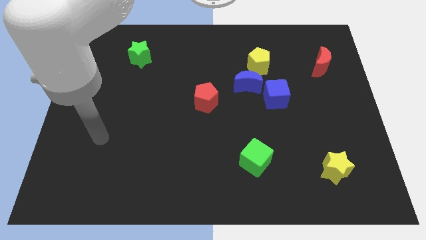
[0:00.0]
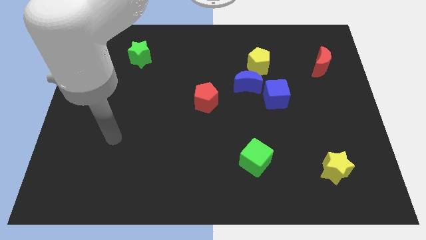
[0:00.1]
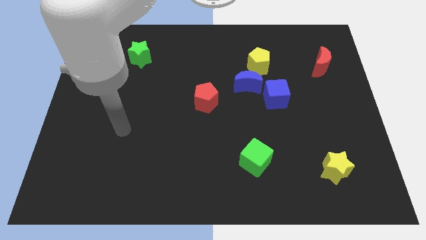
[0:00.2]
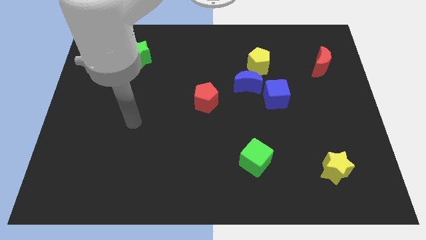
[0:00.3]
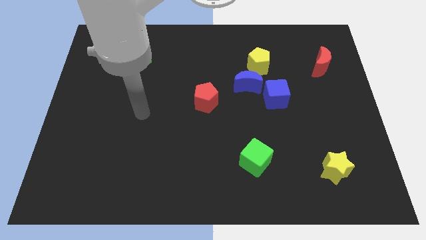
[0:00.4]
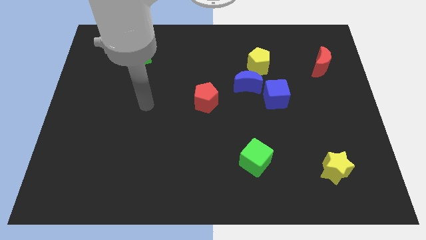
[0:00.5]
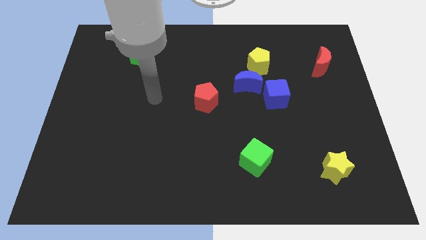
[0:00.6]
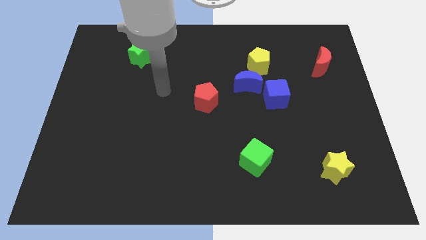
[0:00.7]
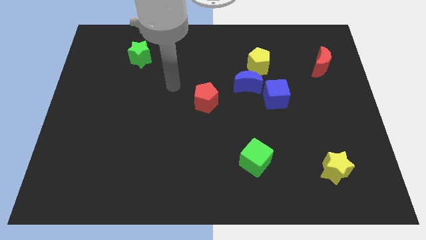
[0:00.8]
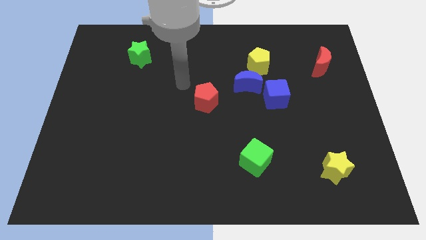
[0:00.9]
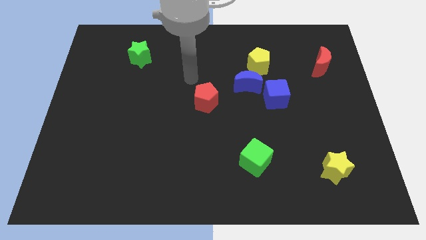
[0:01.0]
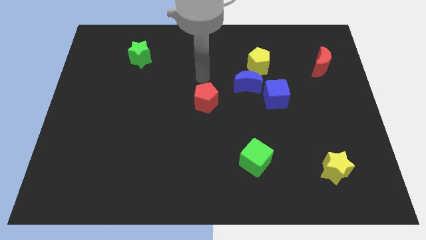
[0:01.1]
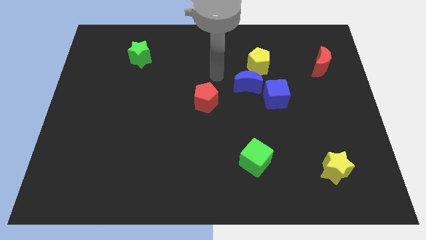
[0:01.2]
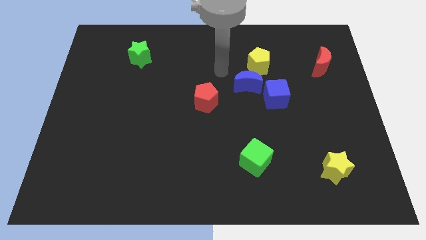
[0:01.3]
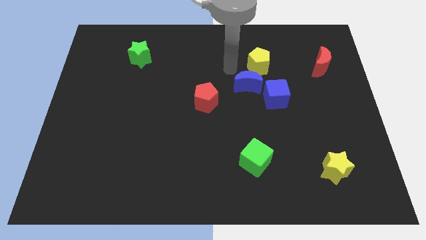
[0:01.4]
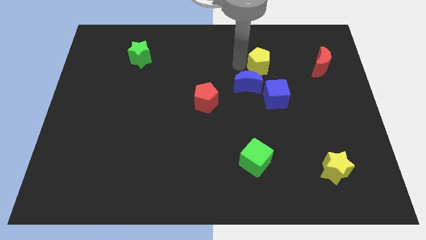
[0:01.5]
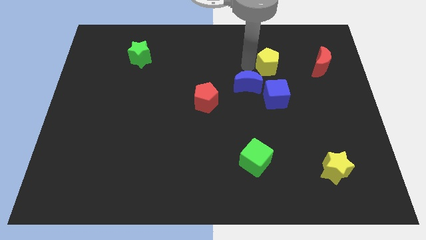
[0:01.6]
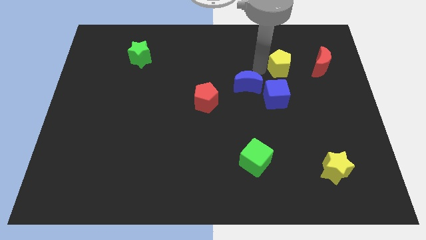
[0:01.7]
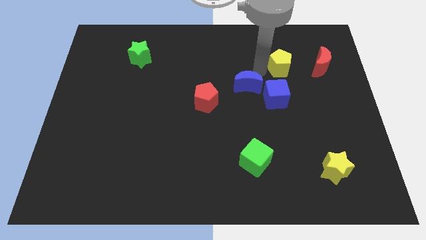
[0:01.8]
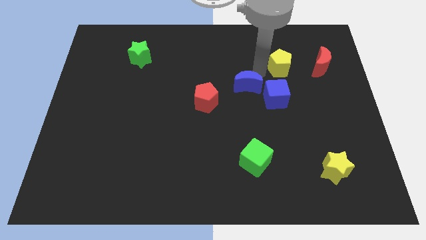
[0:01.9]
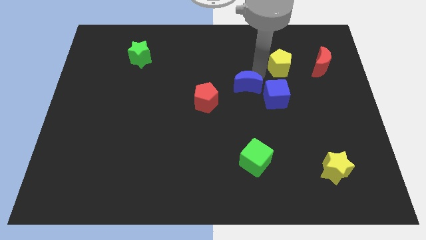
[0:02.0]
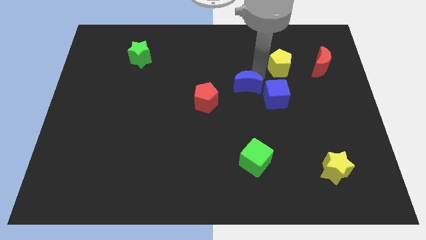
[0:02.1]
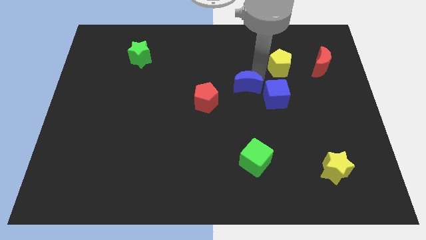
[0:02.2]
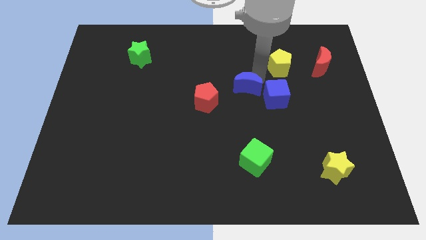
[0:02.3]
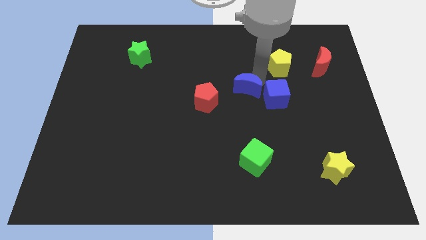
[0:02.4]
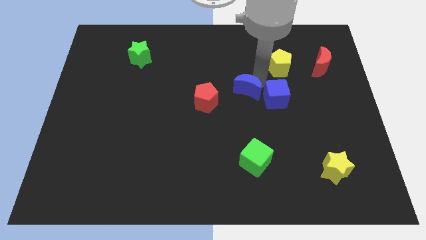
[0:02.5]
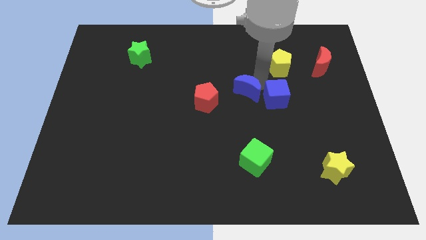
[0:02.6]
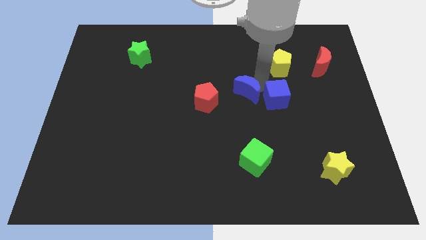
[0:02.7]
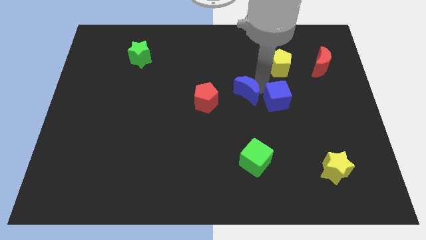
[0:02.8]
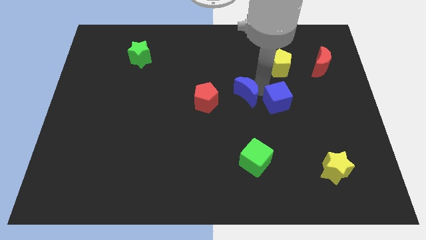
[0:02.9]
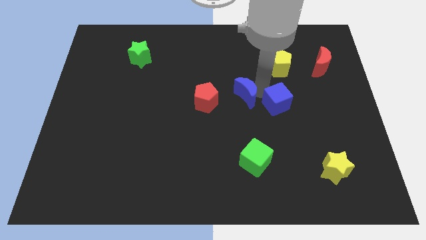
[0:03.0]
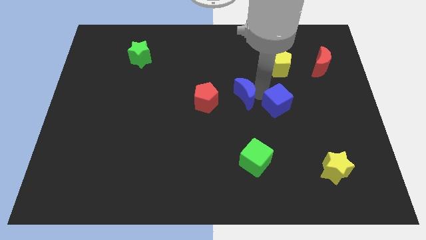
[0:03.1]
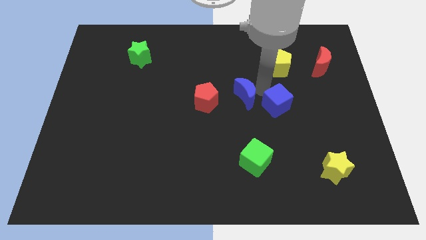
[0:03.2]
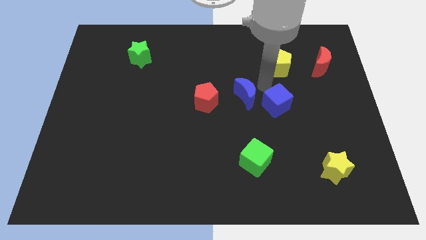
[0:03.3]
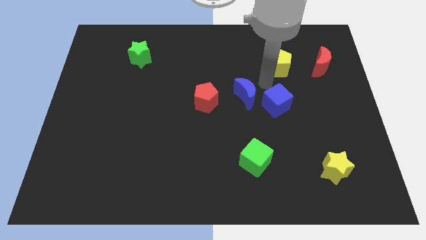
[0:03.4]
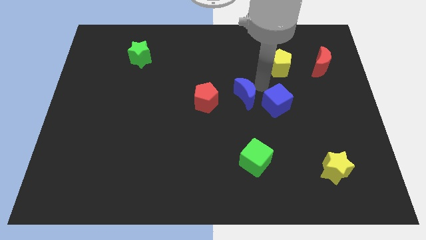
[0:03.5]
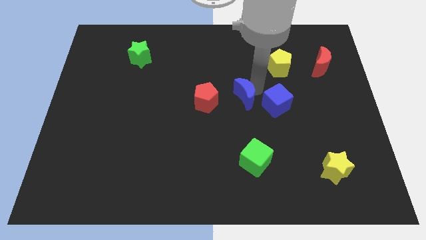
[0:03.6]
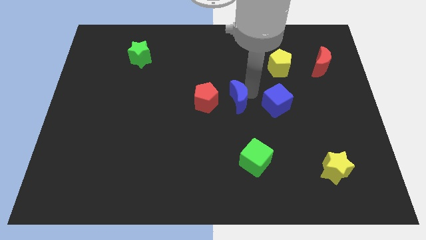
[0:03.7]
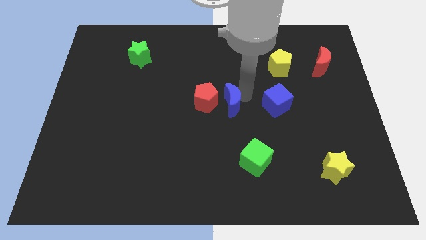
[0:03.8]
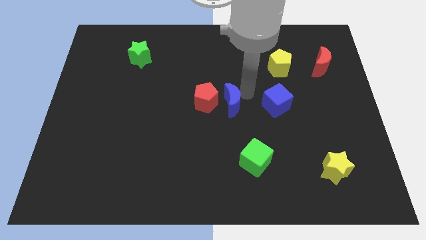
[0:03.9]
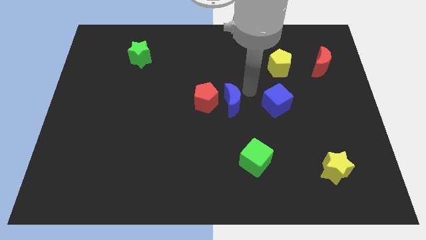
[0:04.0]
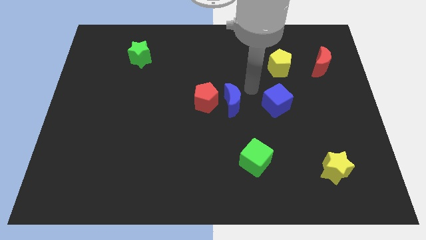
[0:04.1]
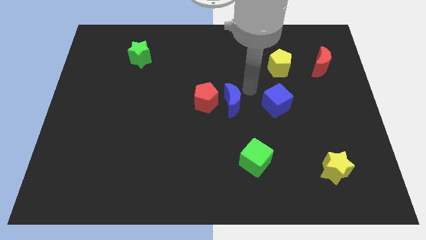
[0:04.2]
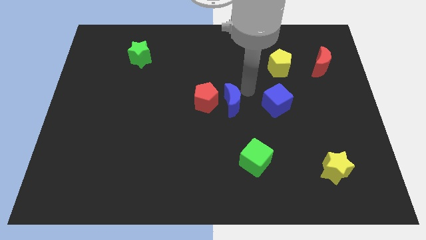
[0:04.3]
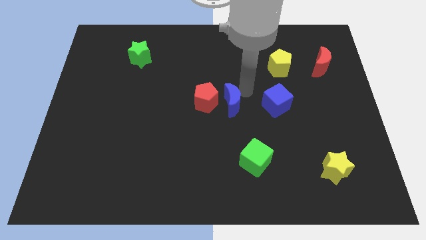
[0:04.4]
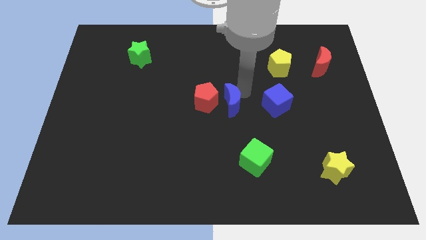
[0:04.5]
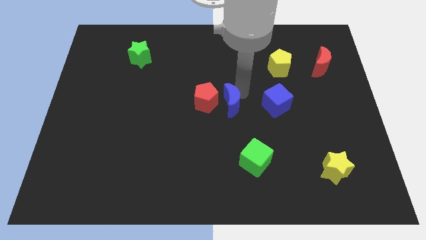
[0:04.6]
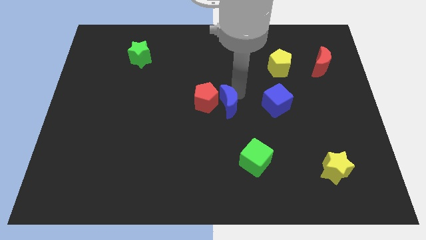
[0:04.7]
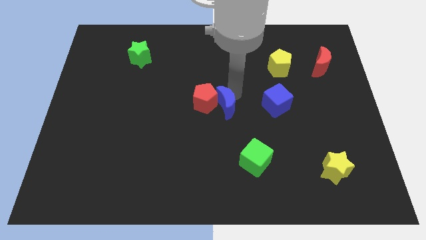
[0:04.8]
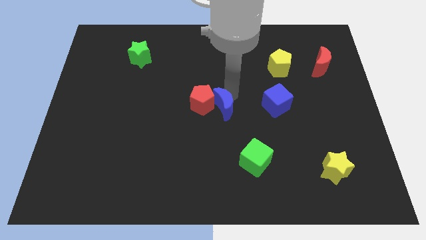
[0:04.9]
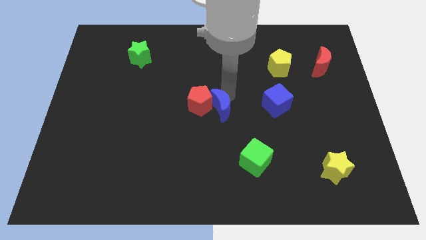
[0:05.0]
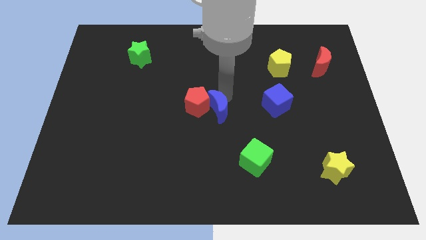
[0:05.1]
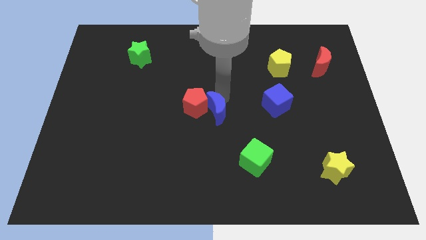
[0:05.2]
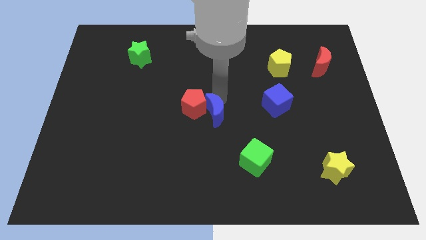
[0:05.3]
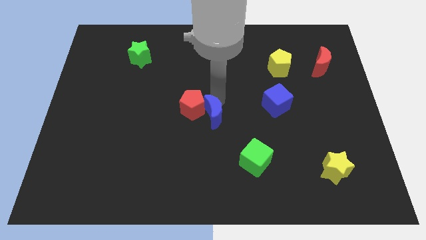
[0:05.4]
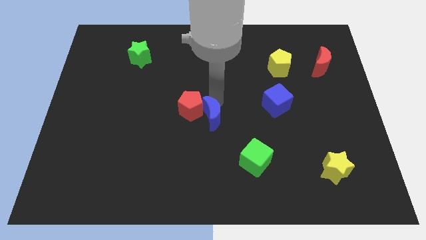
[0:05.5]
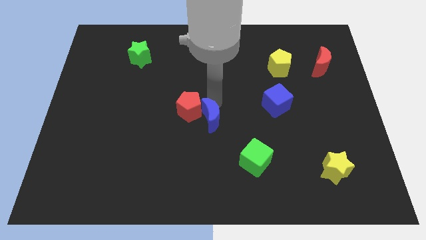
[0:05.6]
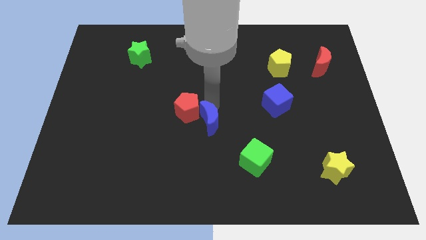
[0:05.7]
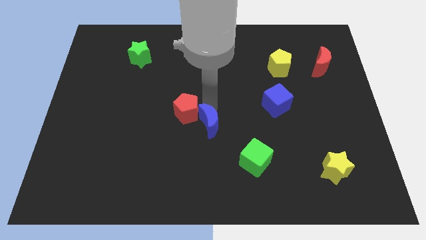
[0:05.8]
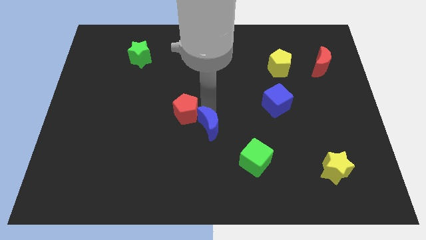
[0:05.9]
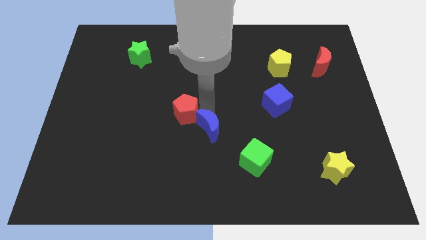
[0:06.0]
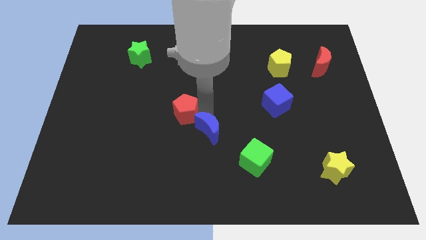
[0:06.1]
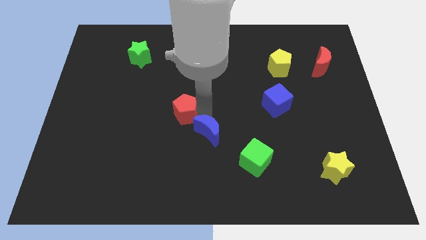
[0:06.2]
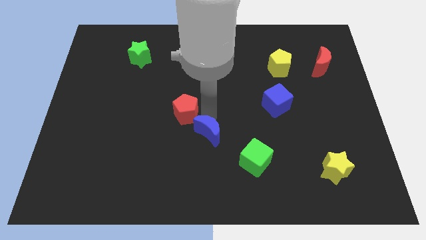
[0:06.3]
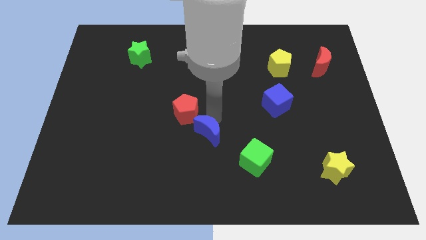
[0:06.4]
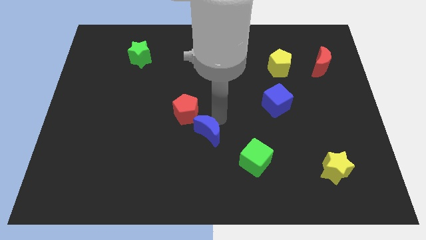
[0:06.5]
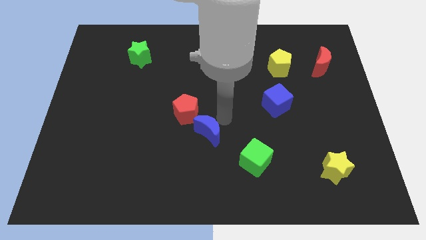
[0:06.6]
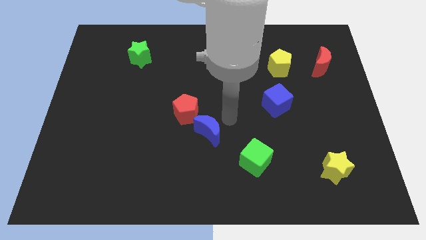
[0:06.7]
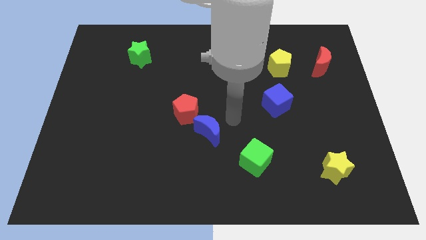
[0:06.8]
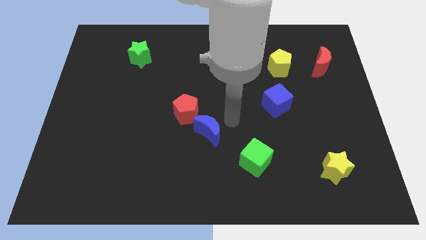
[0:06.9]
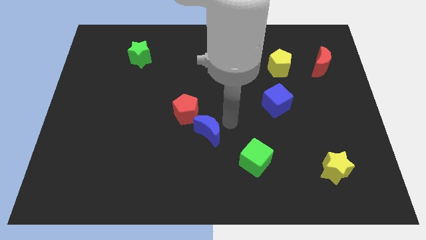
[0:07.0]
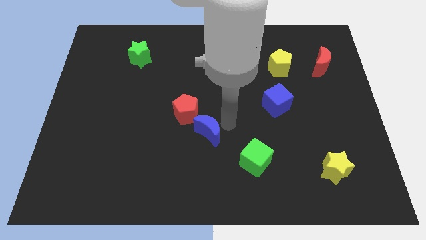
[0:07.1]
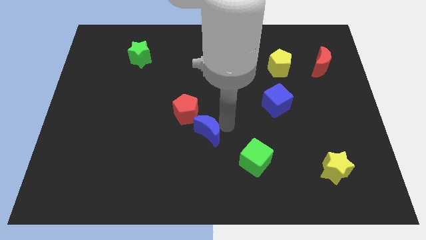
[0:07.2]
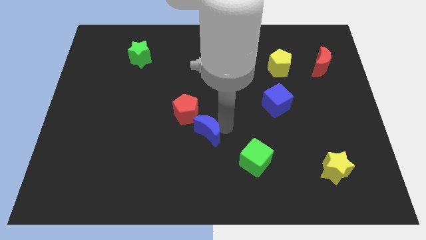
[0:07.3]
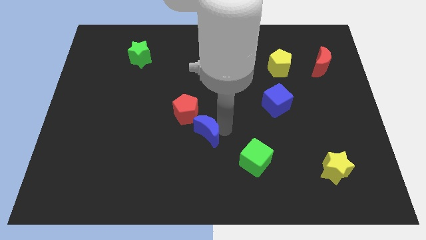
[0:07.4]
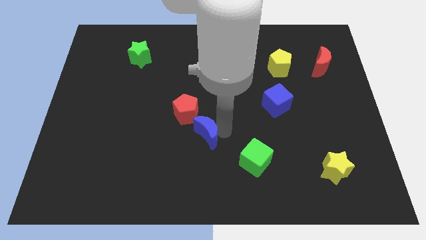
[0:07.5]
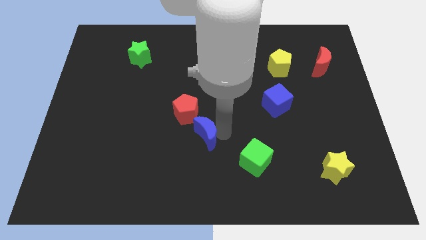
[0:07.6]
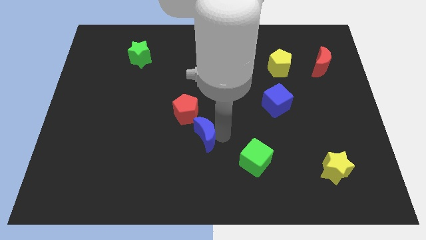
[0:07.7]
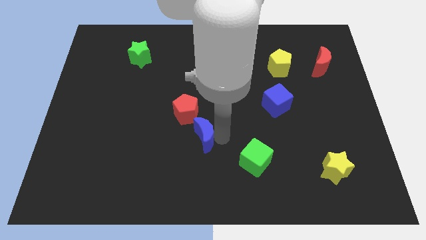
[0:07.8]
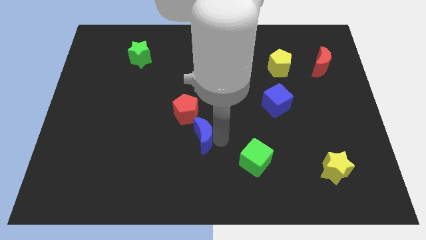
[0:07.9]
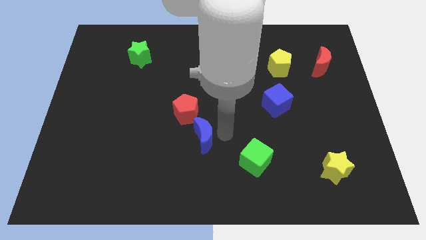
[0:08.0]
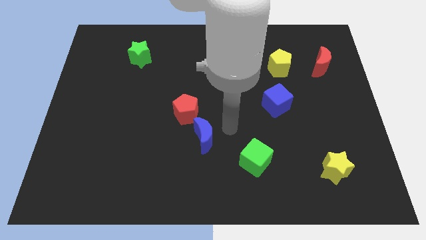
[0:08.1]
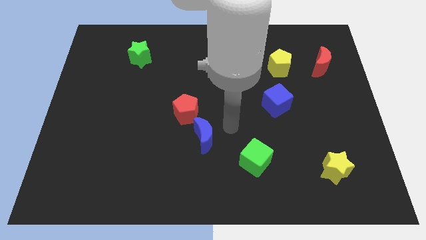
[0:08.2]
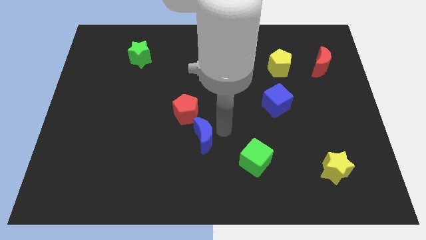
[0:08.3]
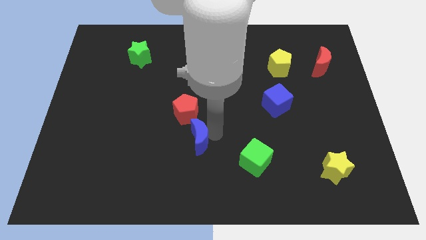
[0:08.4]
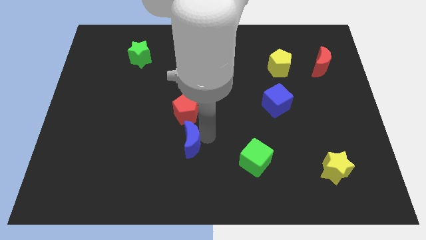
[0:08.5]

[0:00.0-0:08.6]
slide the blue moon down and left diagonally
